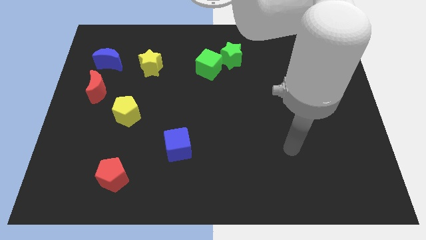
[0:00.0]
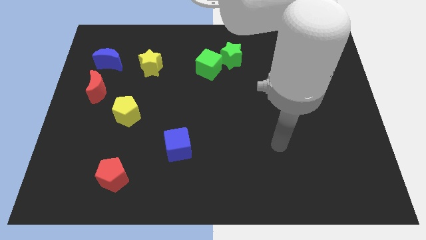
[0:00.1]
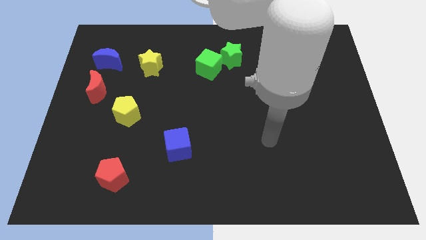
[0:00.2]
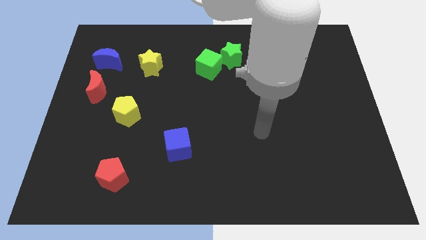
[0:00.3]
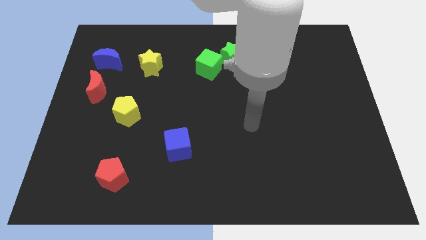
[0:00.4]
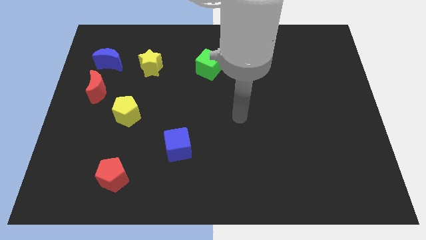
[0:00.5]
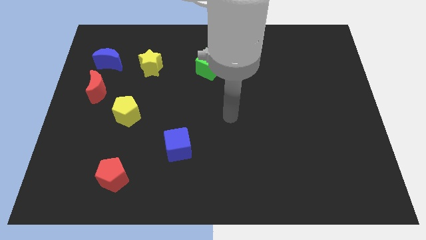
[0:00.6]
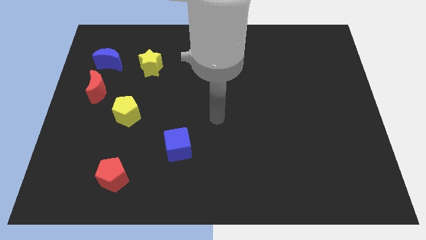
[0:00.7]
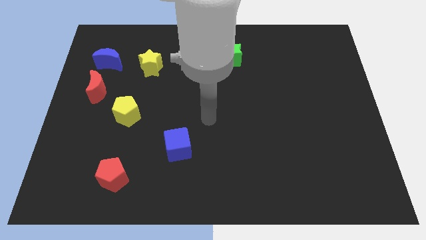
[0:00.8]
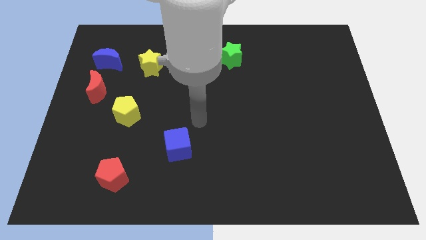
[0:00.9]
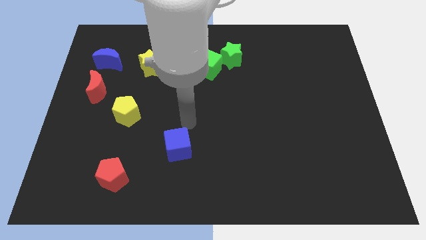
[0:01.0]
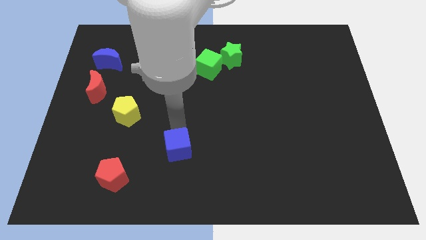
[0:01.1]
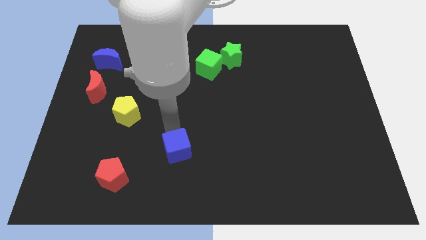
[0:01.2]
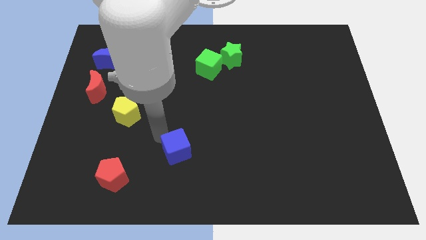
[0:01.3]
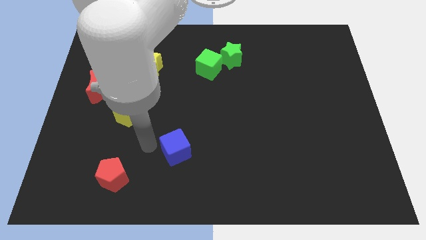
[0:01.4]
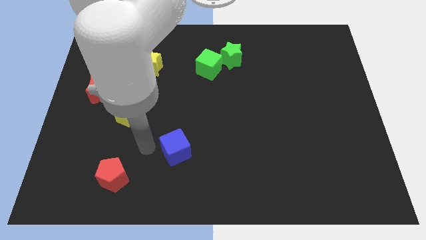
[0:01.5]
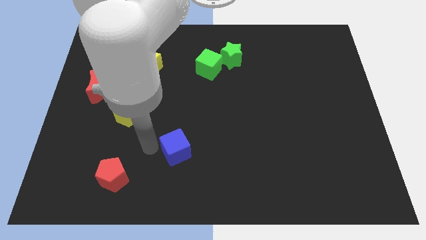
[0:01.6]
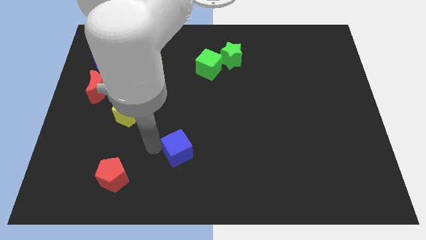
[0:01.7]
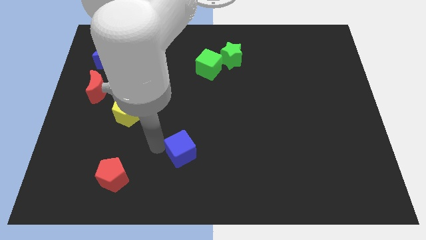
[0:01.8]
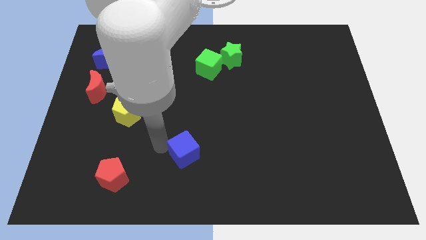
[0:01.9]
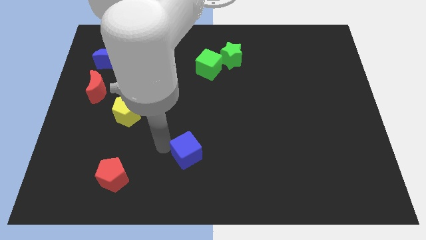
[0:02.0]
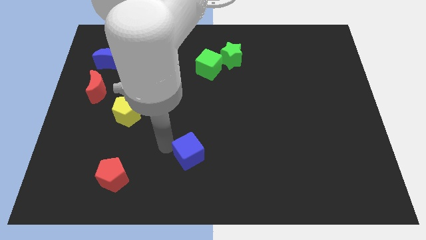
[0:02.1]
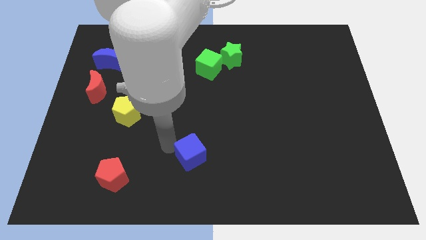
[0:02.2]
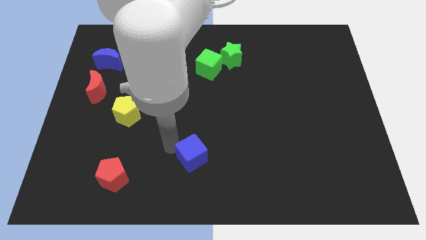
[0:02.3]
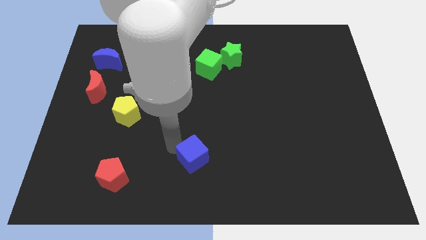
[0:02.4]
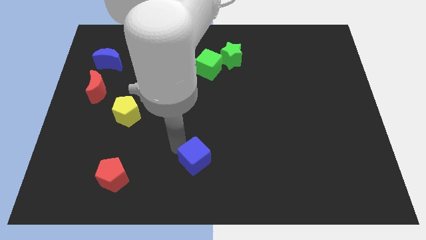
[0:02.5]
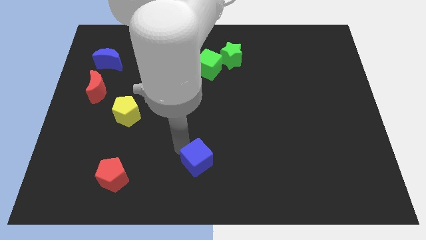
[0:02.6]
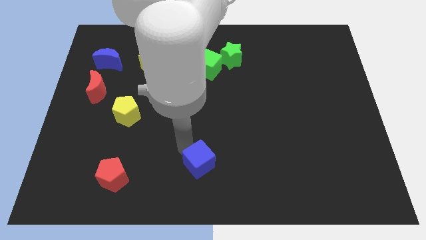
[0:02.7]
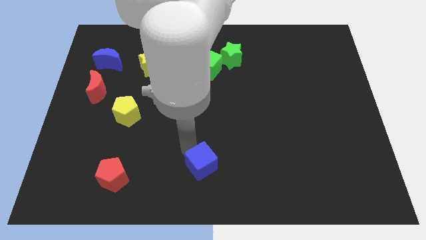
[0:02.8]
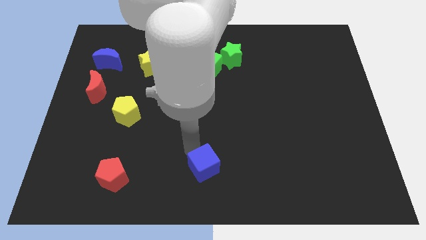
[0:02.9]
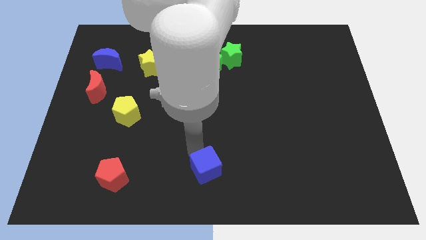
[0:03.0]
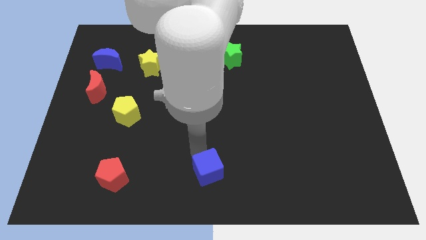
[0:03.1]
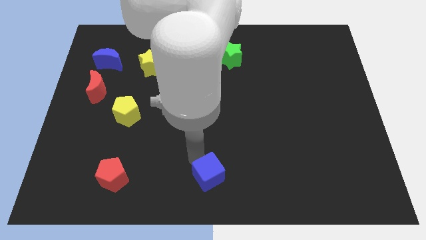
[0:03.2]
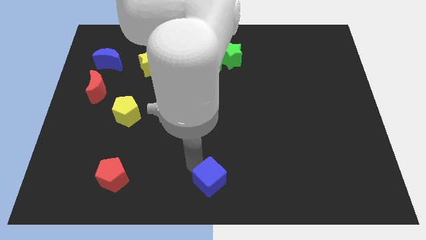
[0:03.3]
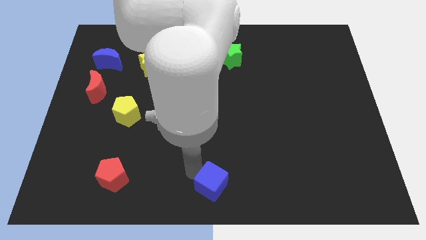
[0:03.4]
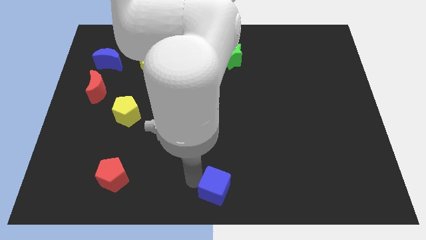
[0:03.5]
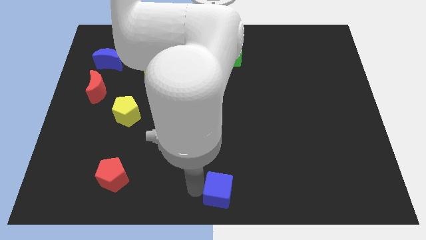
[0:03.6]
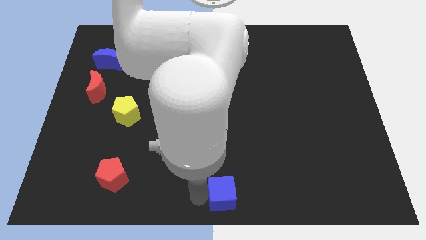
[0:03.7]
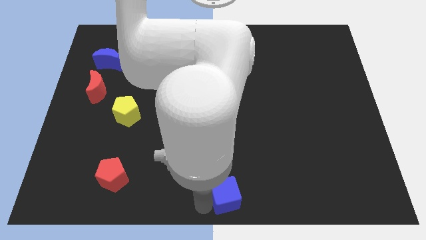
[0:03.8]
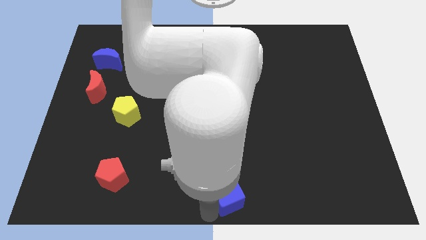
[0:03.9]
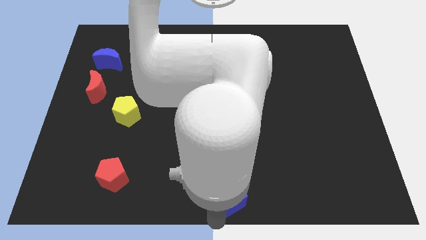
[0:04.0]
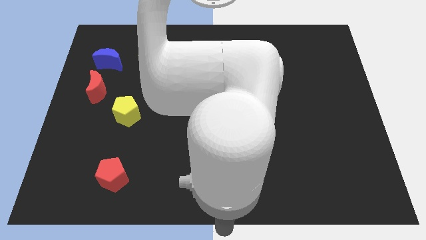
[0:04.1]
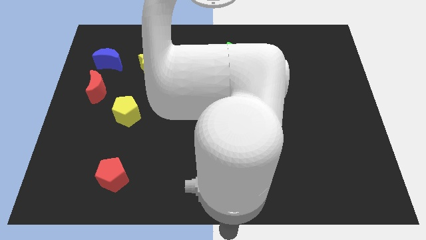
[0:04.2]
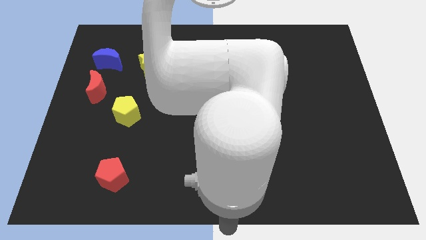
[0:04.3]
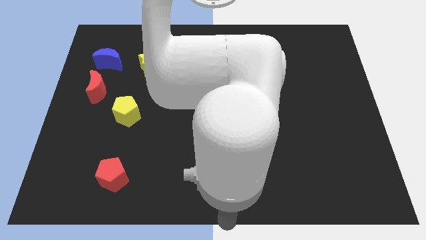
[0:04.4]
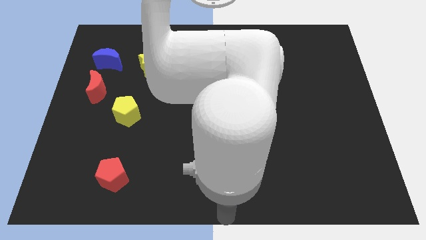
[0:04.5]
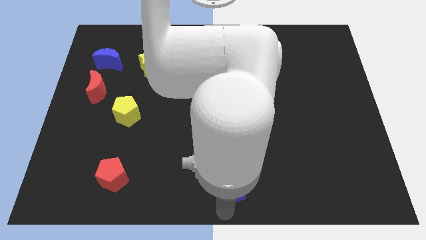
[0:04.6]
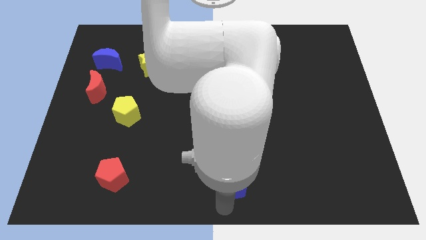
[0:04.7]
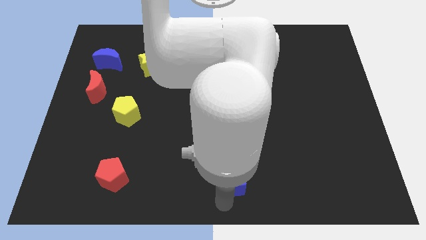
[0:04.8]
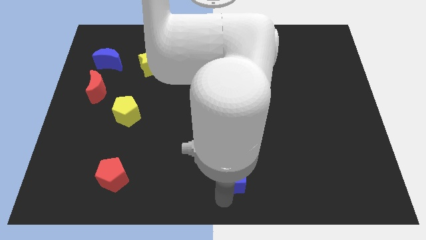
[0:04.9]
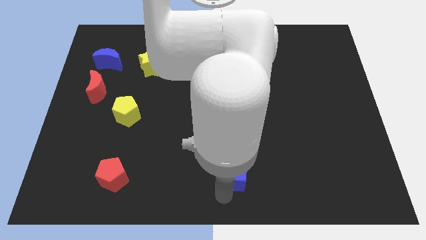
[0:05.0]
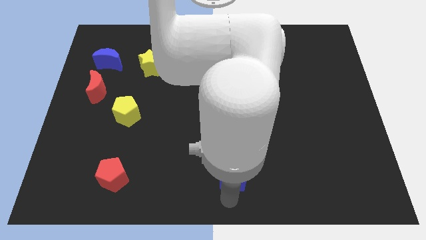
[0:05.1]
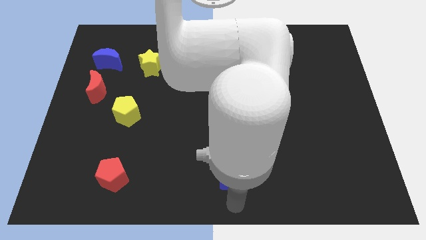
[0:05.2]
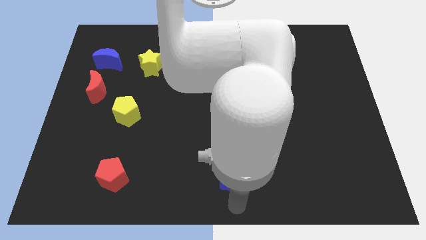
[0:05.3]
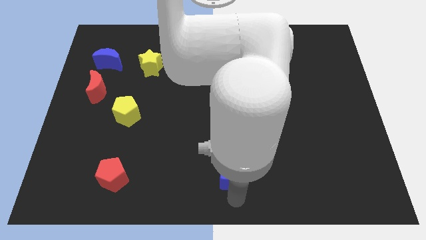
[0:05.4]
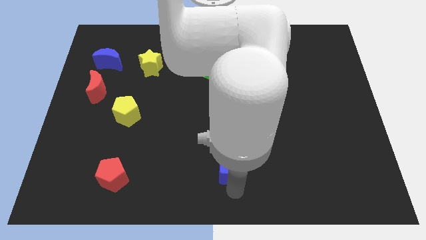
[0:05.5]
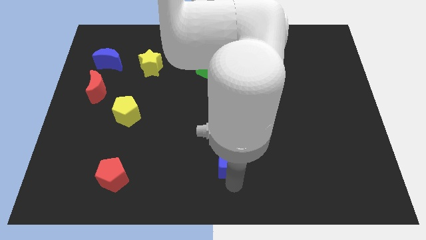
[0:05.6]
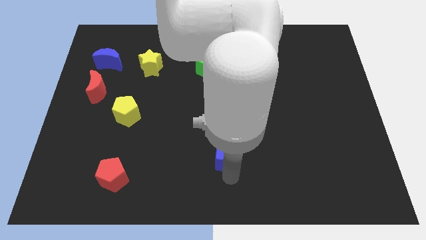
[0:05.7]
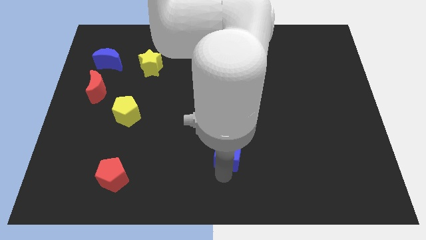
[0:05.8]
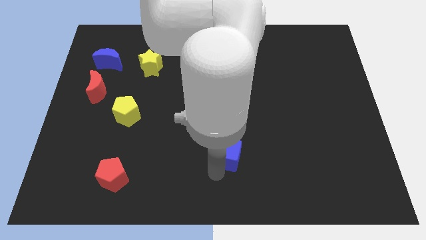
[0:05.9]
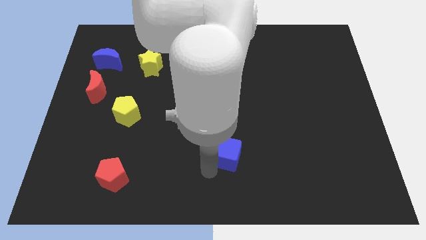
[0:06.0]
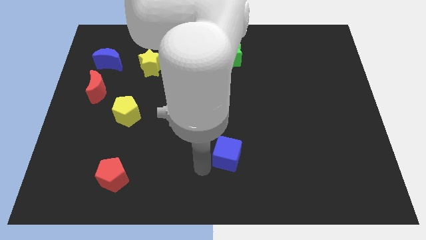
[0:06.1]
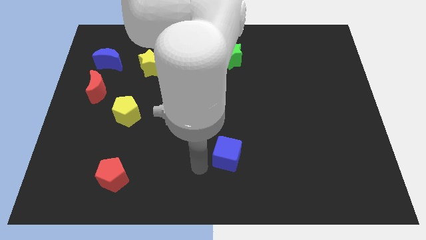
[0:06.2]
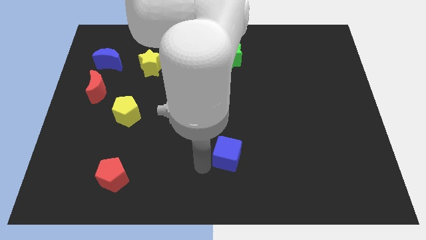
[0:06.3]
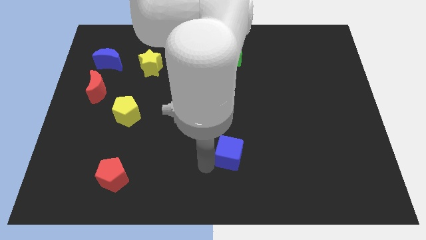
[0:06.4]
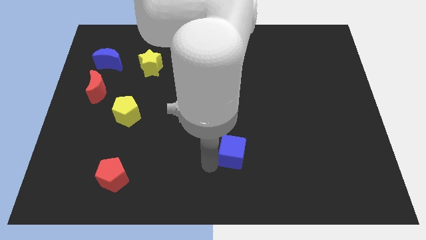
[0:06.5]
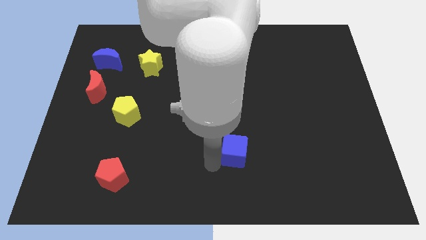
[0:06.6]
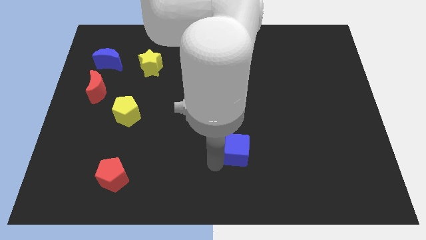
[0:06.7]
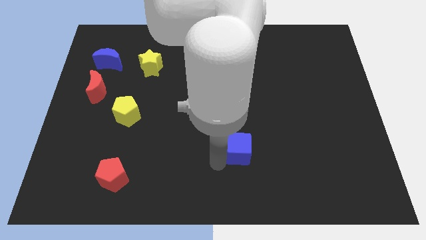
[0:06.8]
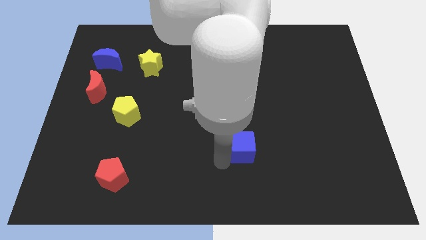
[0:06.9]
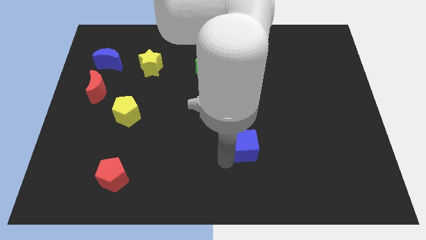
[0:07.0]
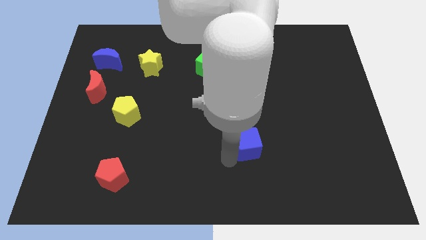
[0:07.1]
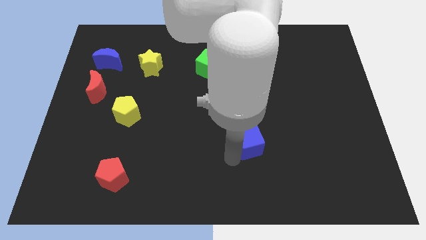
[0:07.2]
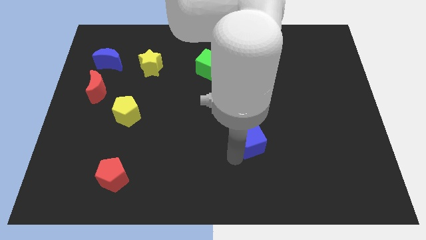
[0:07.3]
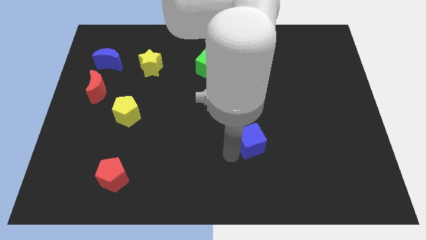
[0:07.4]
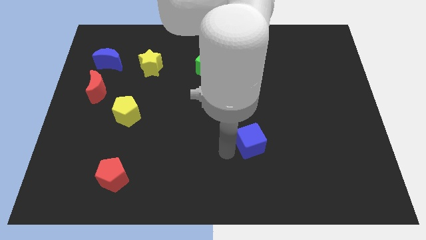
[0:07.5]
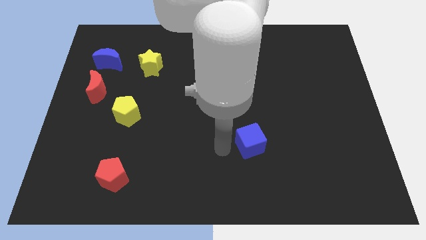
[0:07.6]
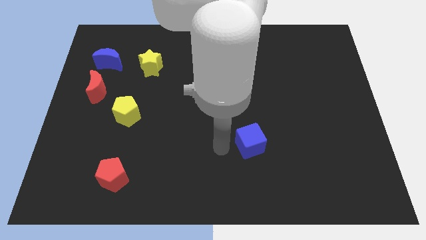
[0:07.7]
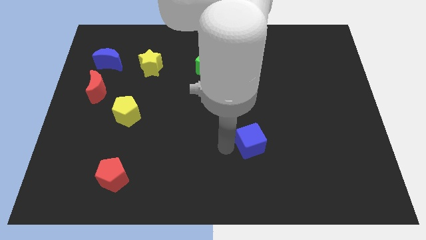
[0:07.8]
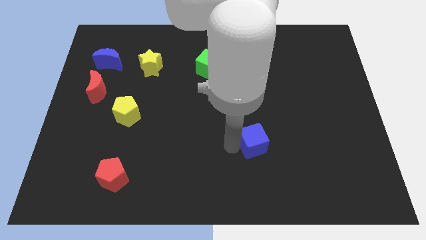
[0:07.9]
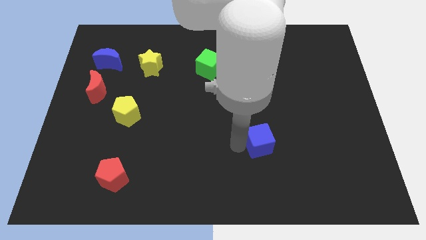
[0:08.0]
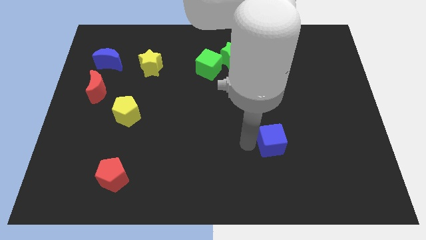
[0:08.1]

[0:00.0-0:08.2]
slide the blue cube to the right
